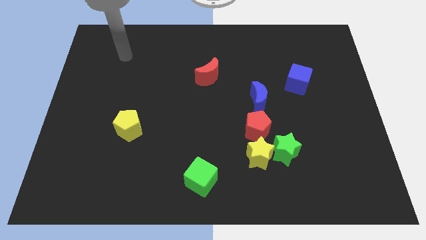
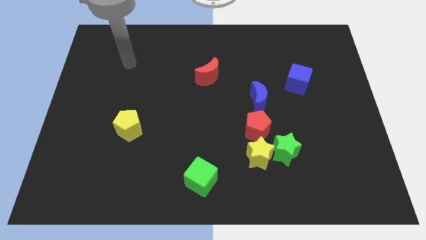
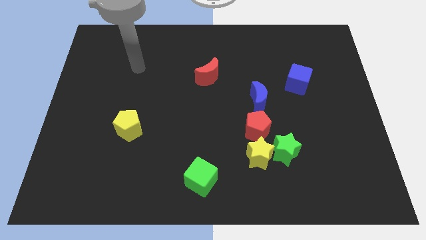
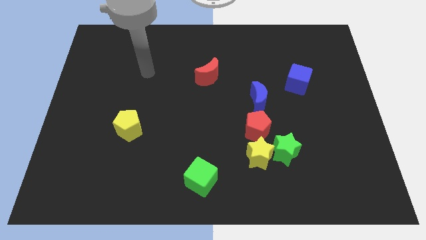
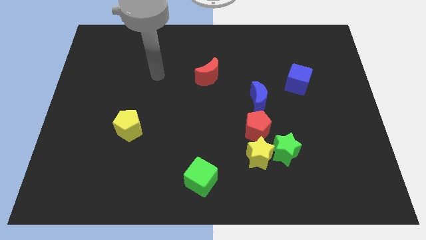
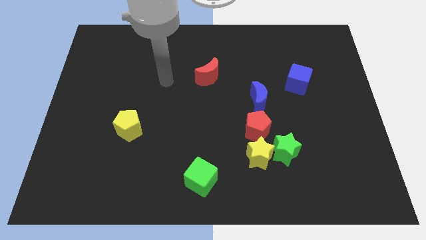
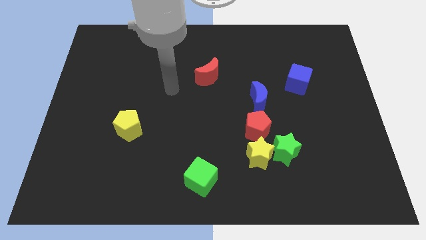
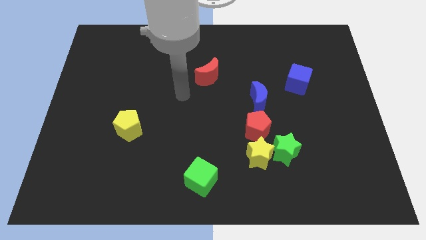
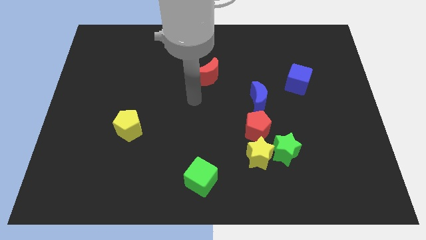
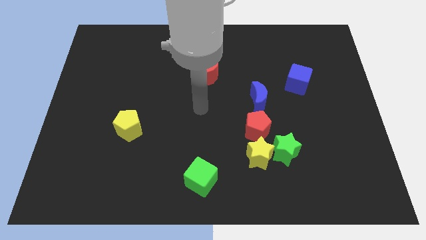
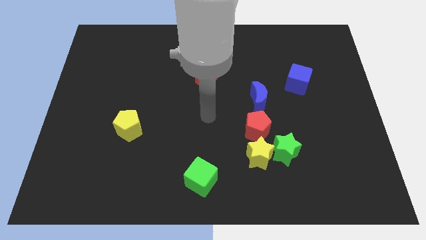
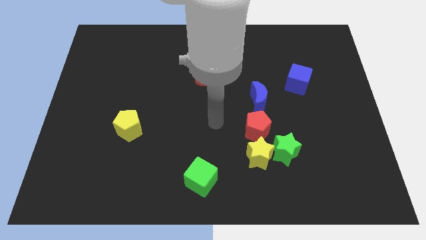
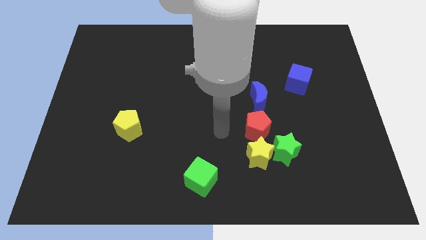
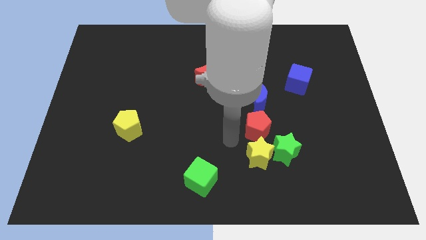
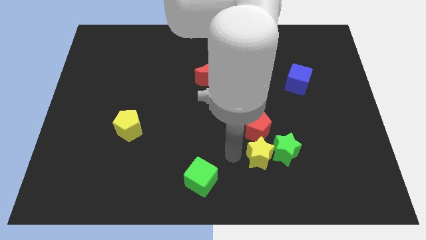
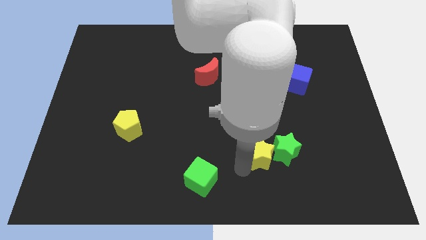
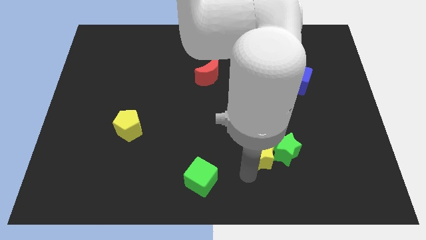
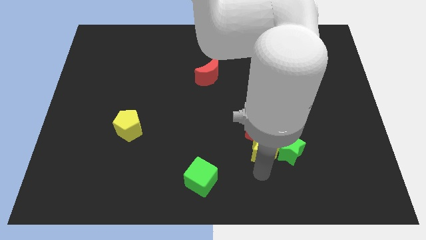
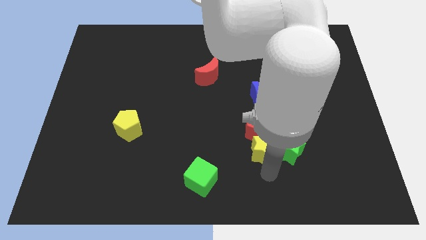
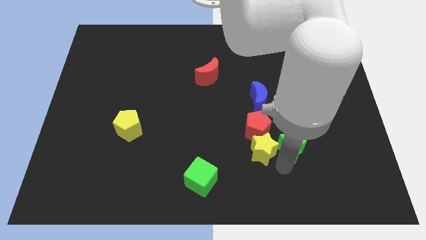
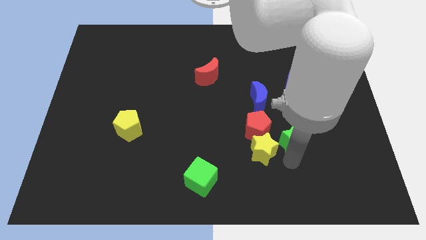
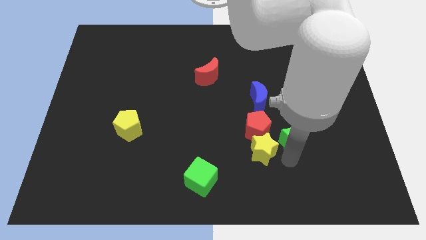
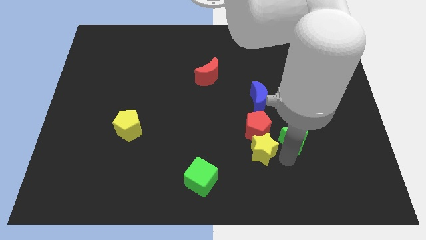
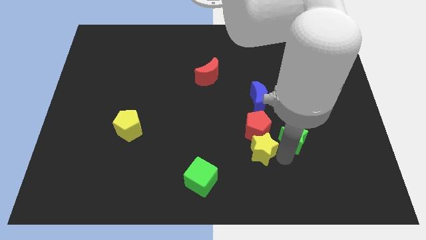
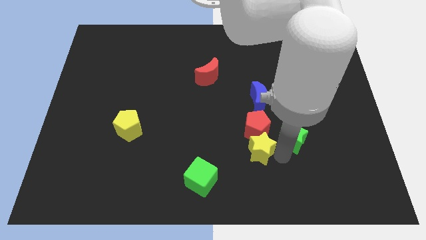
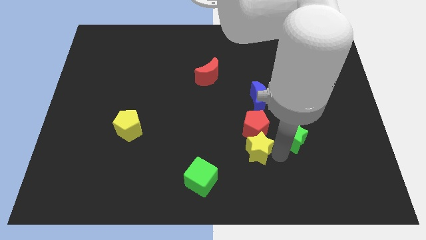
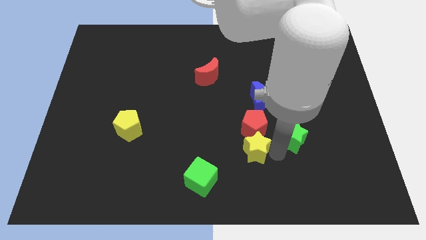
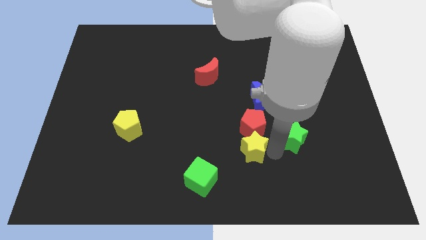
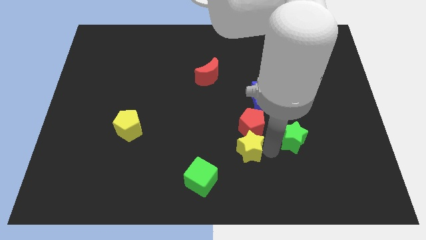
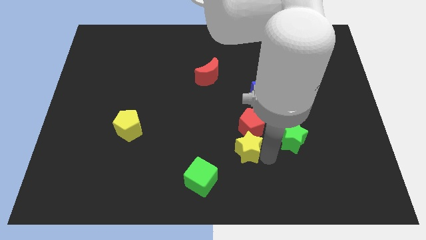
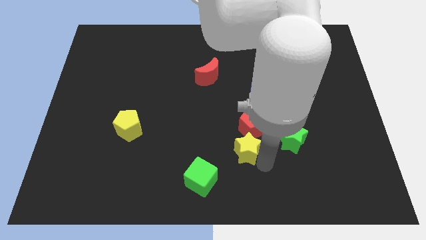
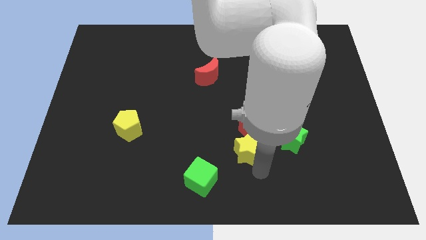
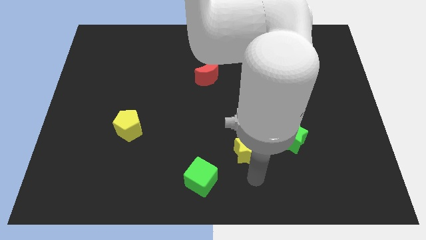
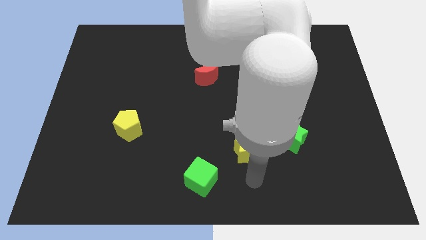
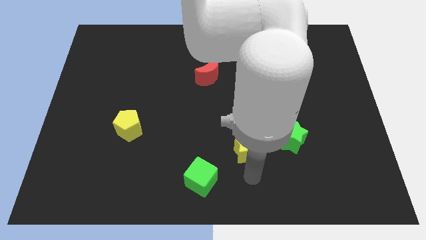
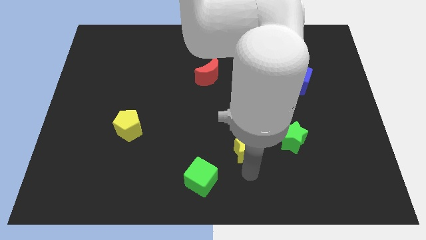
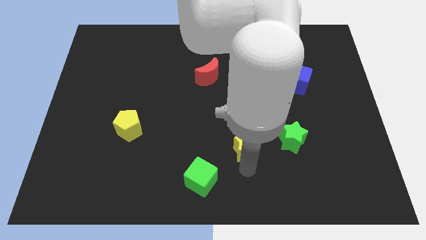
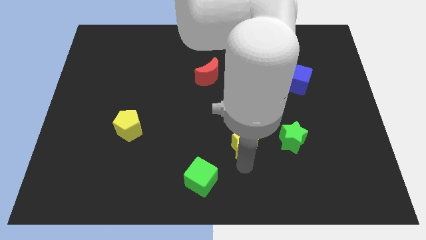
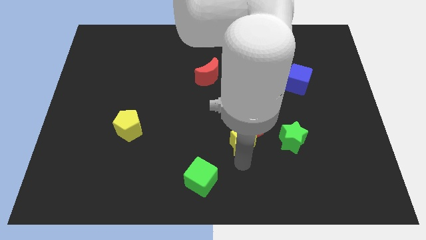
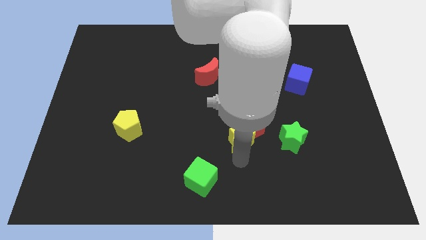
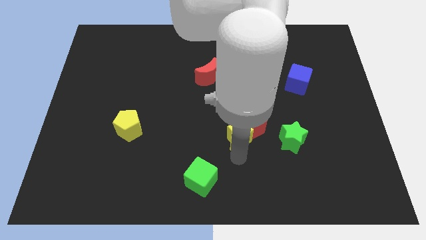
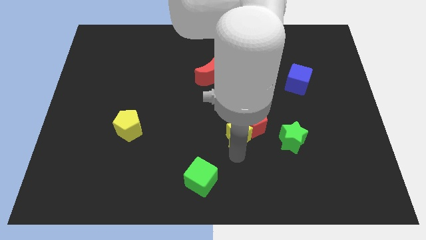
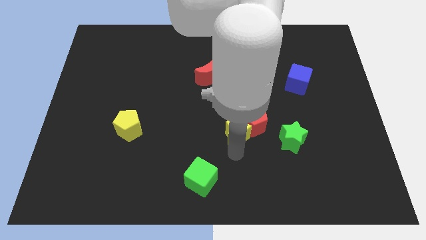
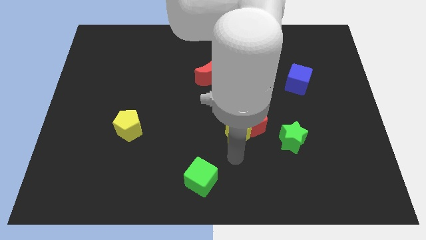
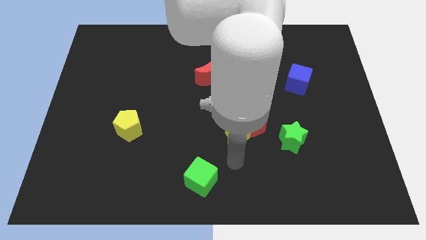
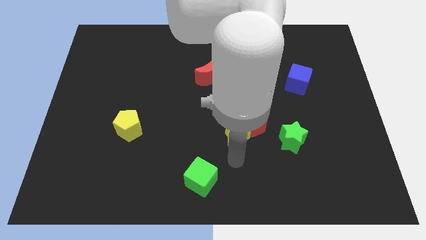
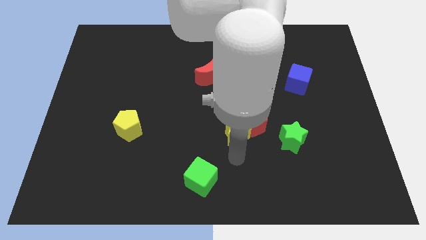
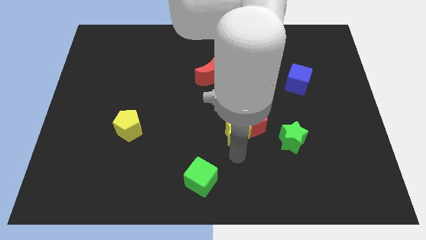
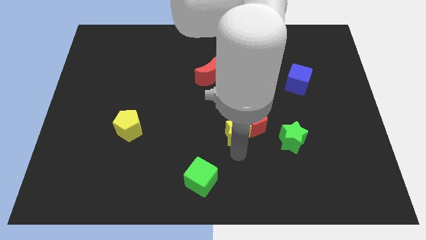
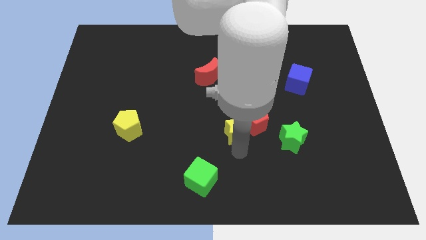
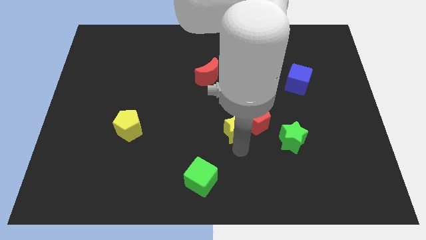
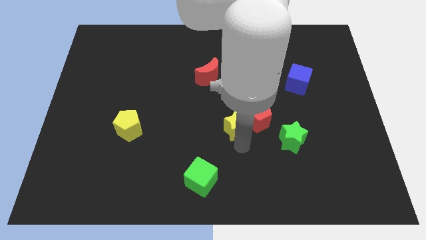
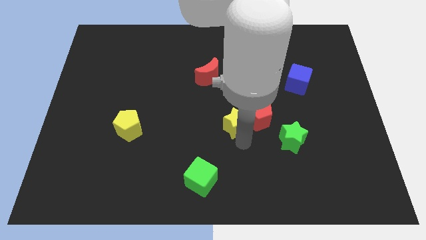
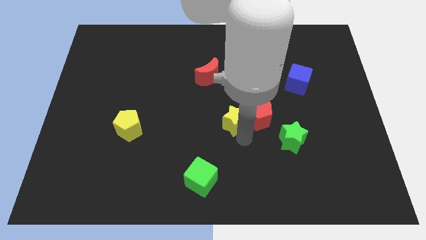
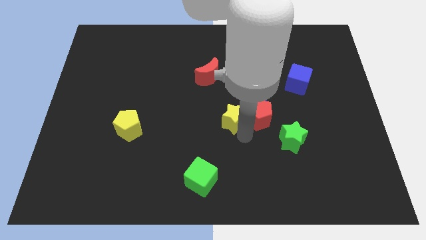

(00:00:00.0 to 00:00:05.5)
push the yellow star to the top left of the red pentagon

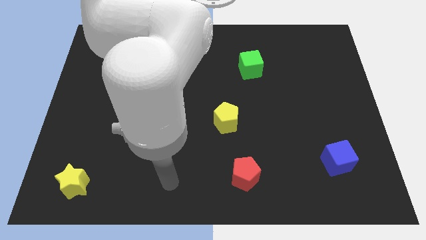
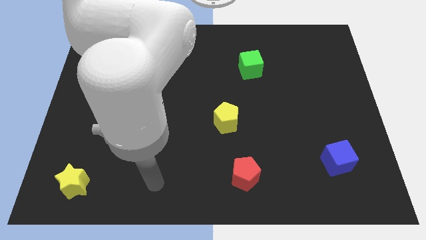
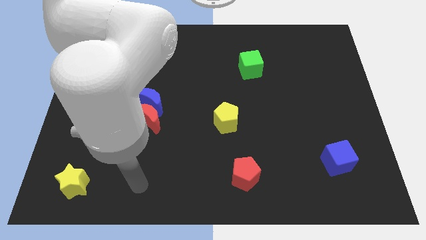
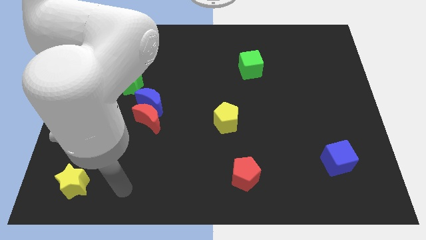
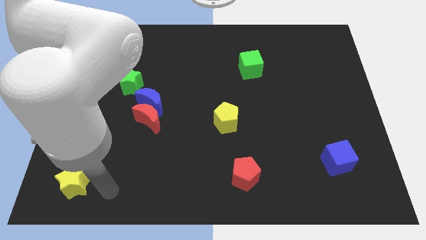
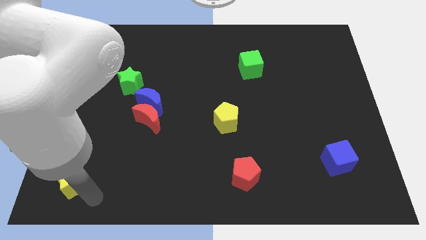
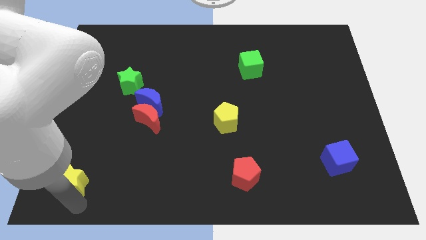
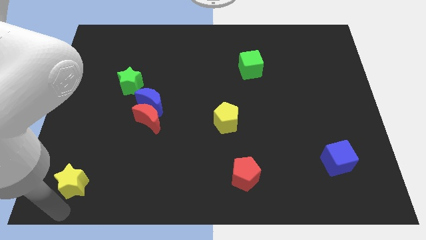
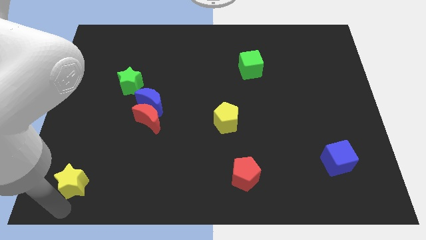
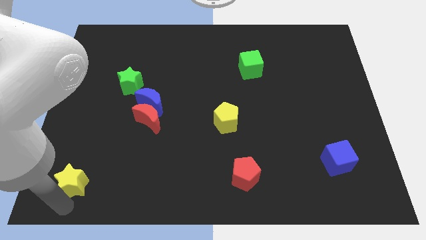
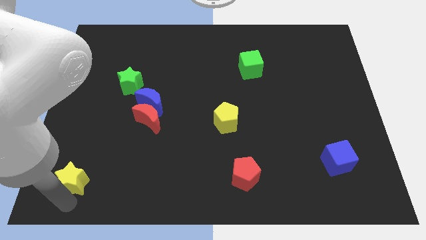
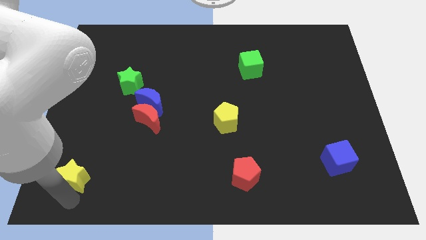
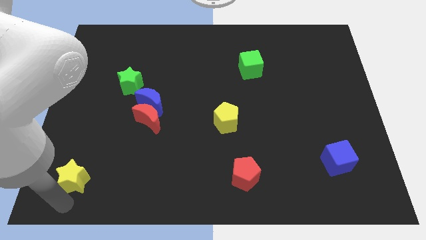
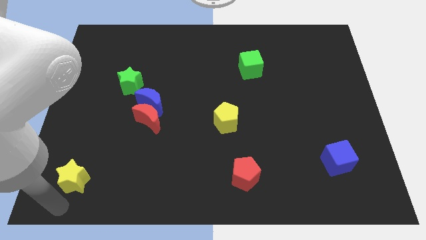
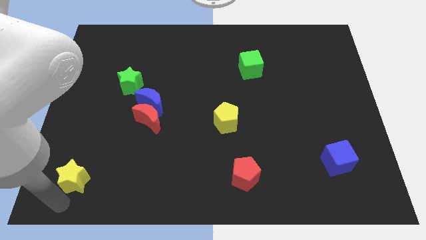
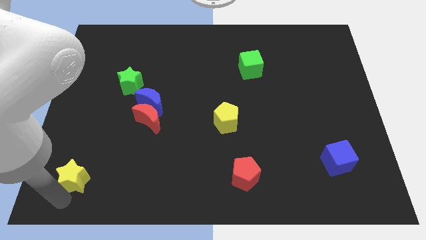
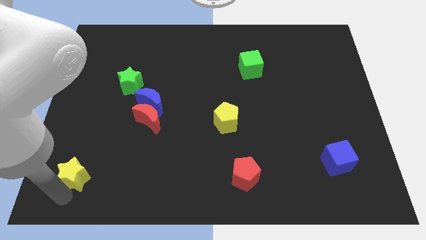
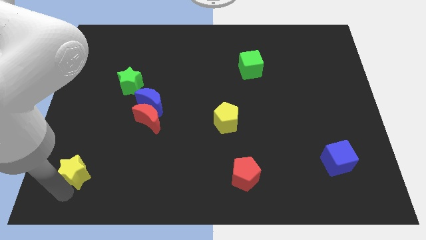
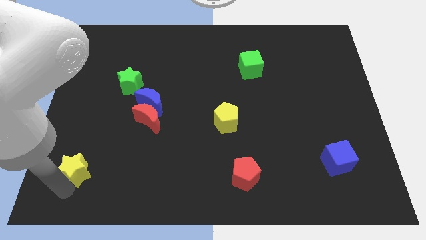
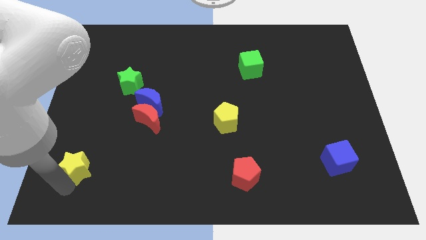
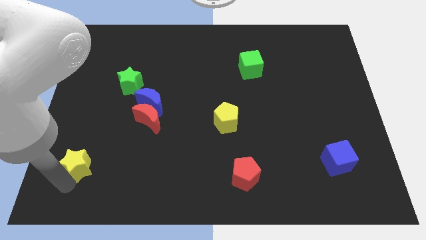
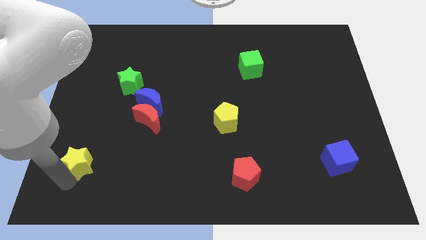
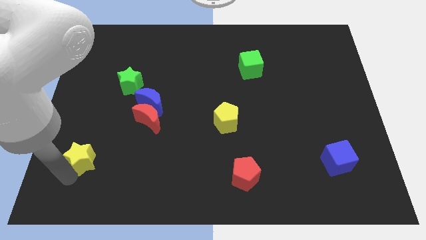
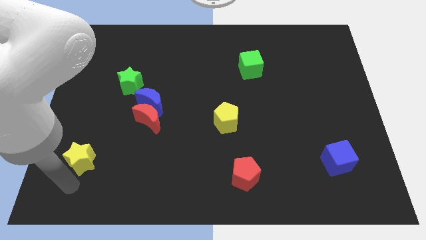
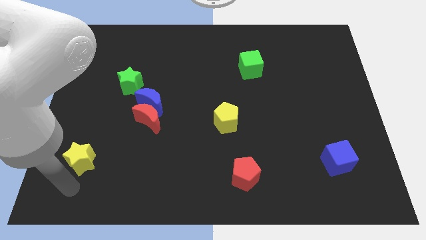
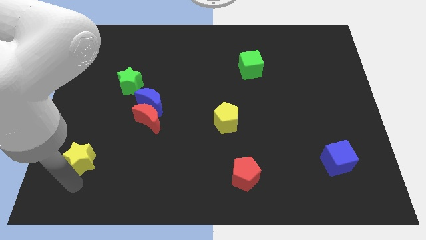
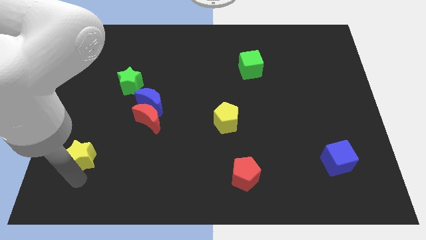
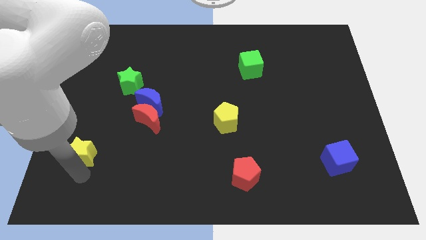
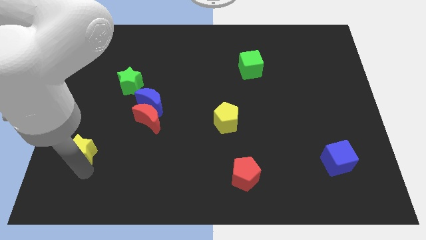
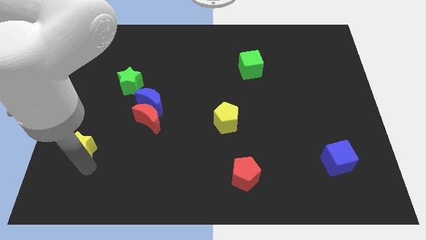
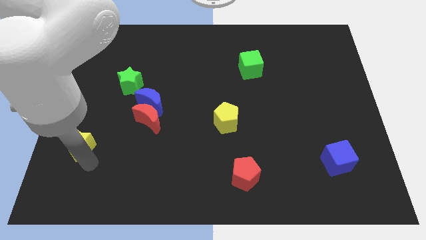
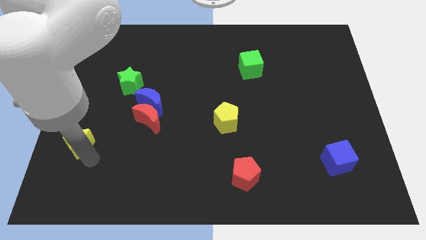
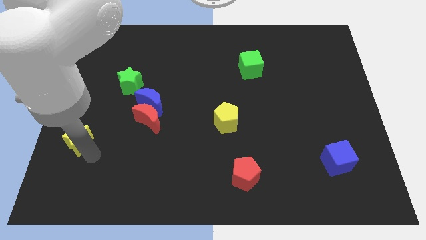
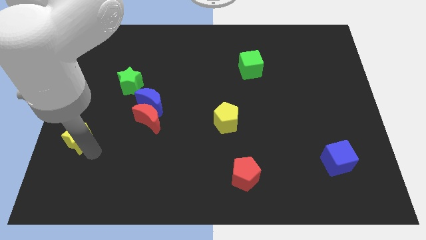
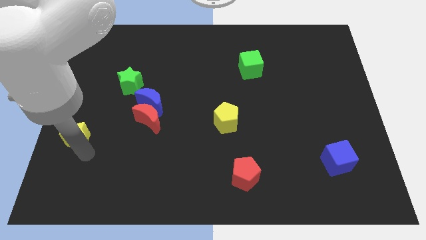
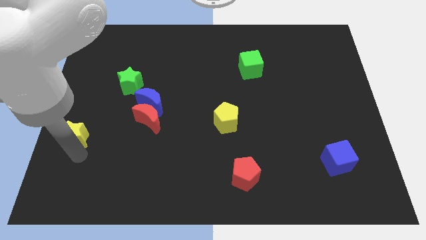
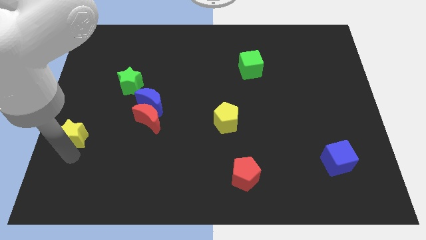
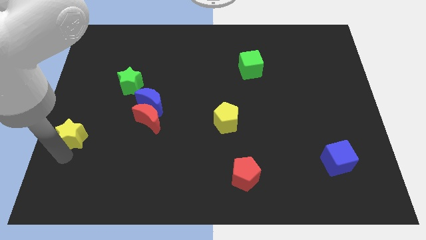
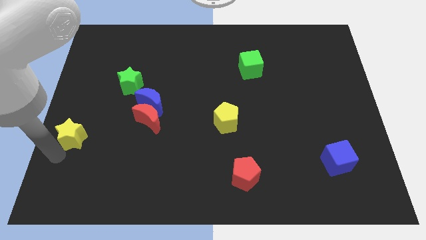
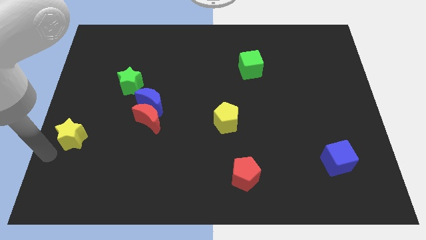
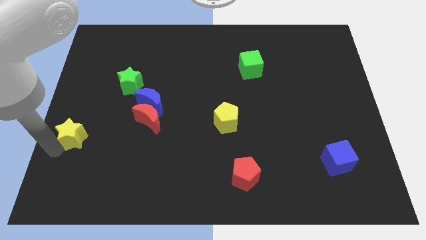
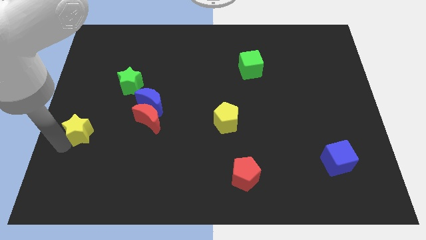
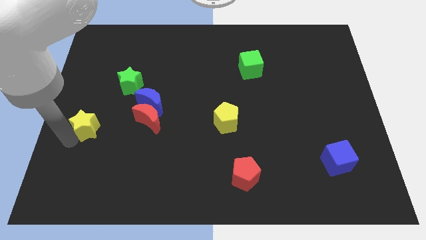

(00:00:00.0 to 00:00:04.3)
slide the yellow star to the left of the red moon
